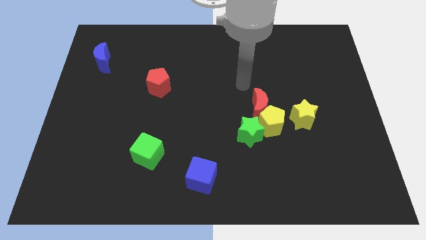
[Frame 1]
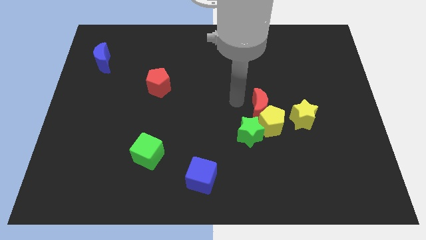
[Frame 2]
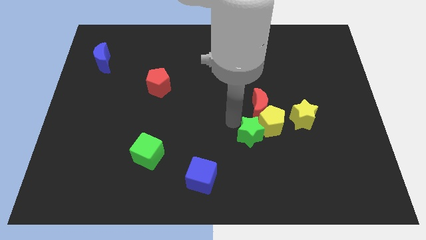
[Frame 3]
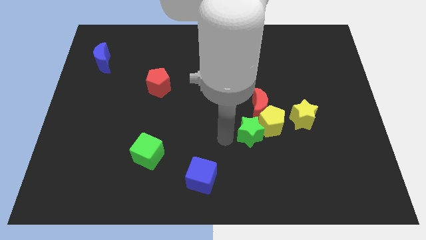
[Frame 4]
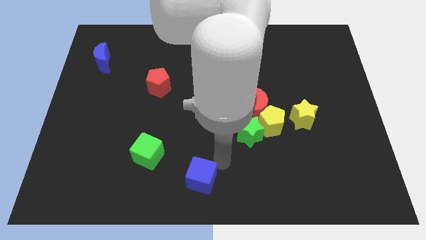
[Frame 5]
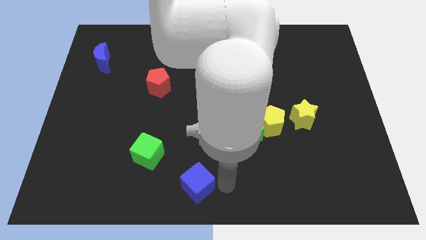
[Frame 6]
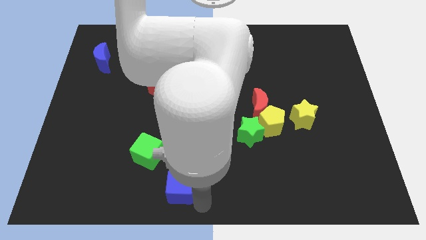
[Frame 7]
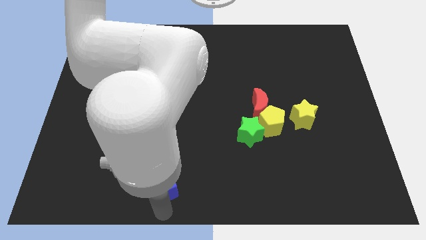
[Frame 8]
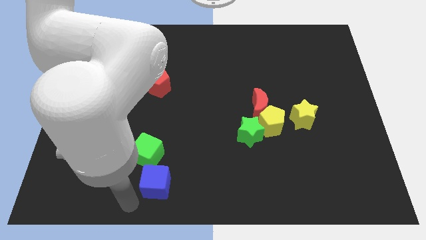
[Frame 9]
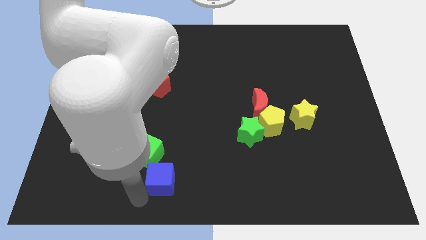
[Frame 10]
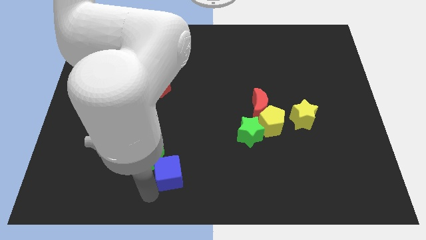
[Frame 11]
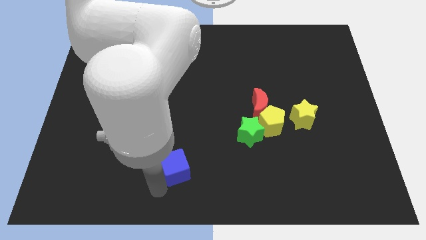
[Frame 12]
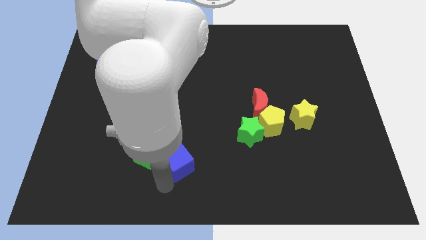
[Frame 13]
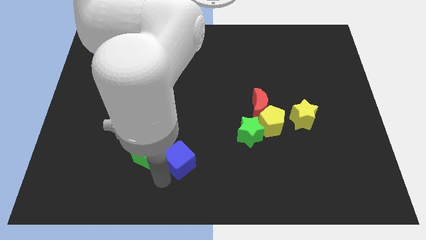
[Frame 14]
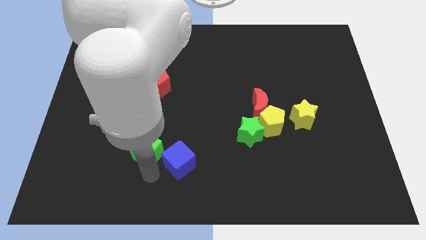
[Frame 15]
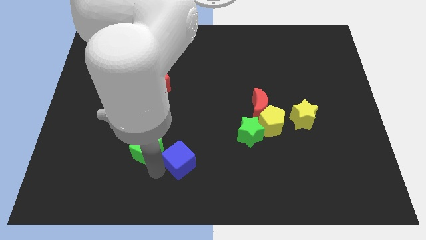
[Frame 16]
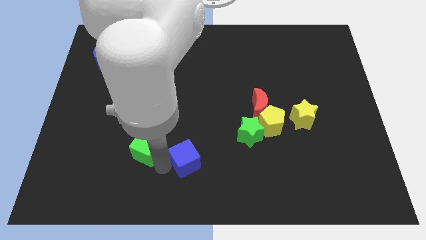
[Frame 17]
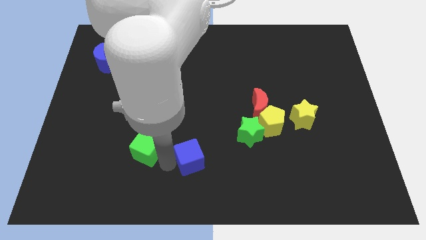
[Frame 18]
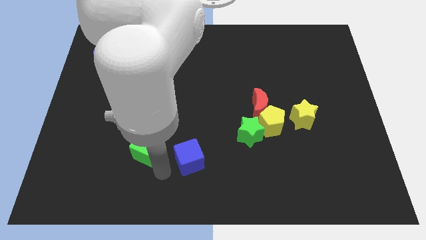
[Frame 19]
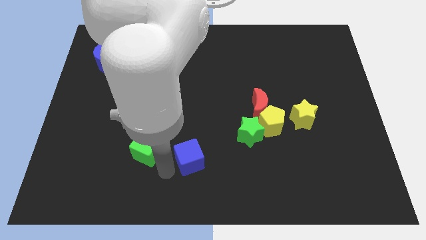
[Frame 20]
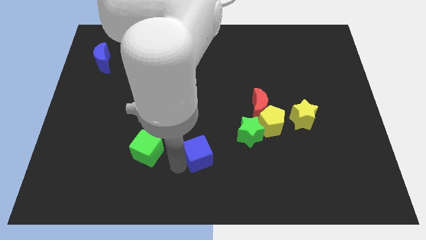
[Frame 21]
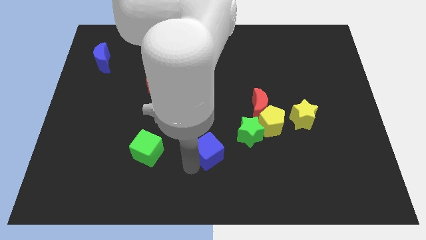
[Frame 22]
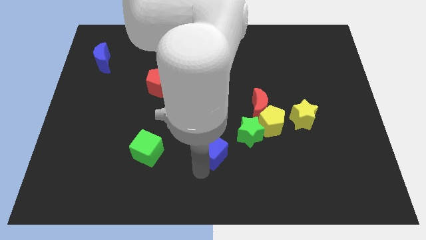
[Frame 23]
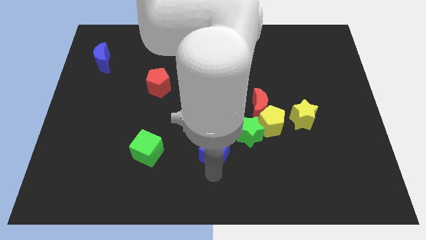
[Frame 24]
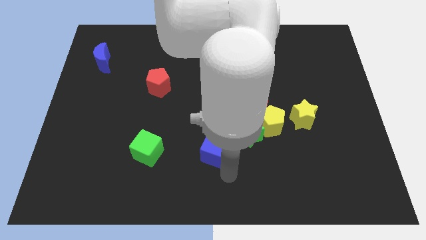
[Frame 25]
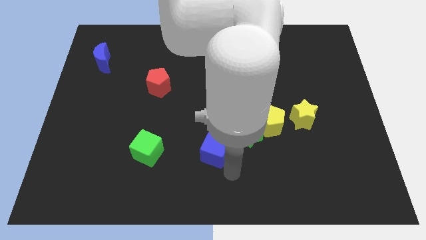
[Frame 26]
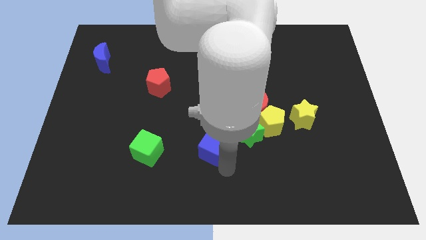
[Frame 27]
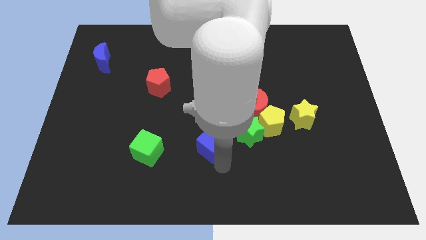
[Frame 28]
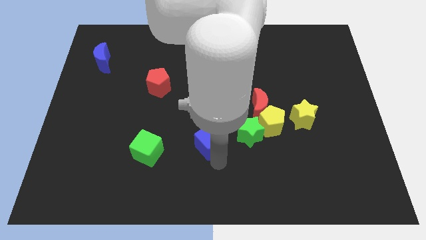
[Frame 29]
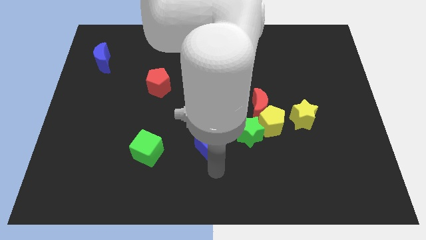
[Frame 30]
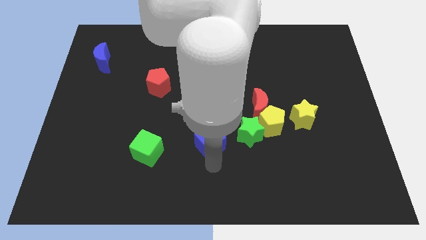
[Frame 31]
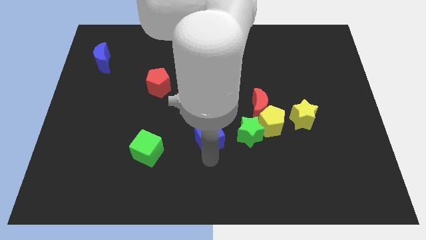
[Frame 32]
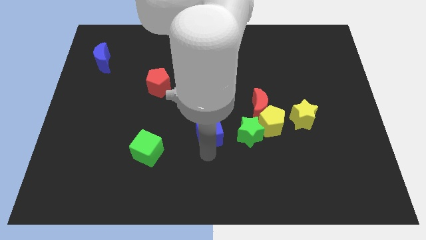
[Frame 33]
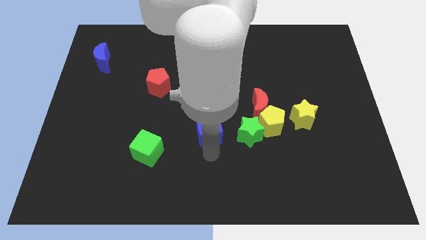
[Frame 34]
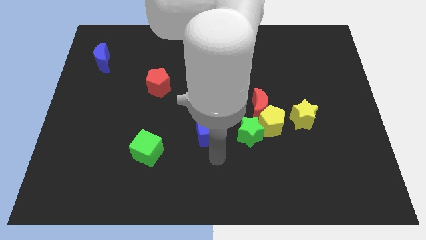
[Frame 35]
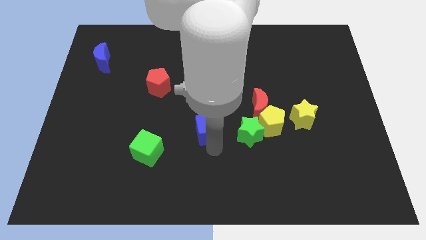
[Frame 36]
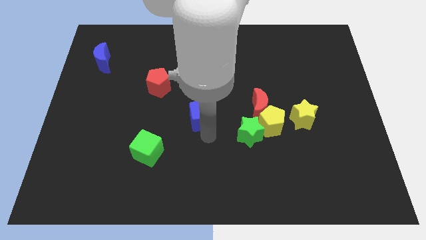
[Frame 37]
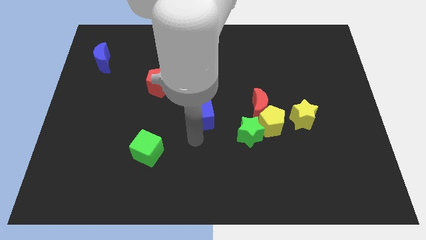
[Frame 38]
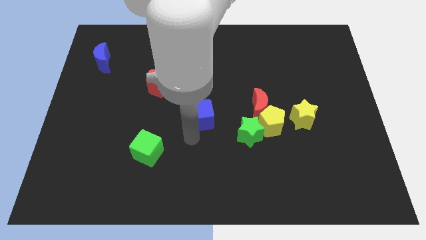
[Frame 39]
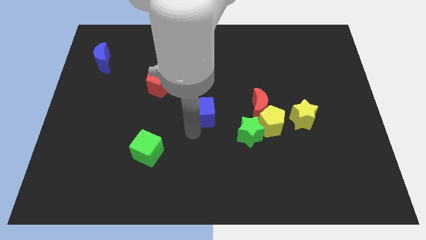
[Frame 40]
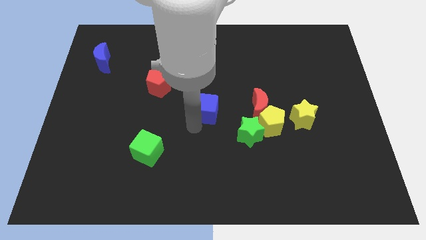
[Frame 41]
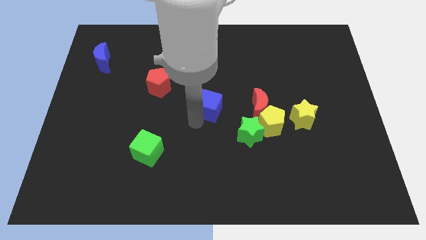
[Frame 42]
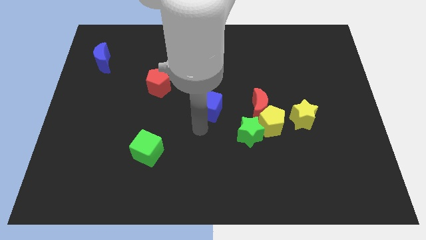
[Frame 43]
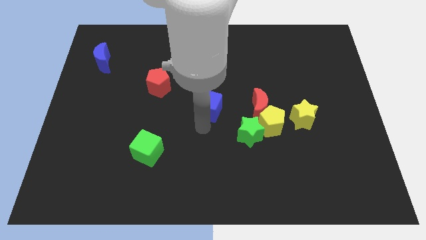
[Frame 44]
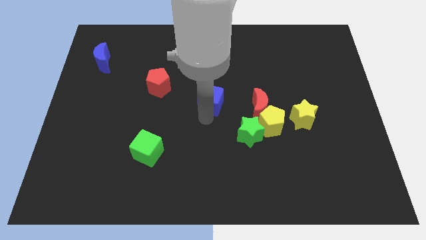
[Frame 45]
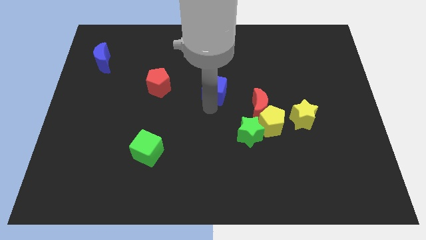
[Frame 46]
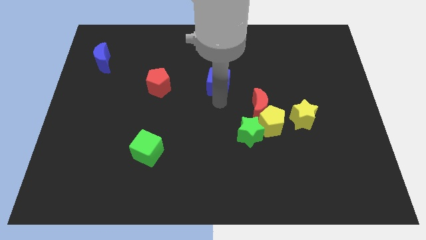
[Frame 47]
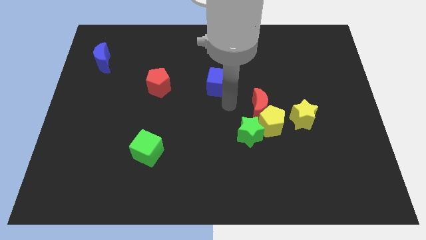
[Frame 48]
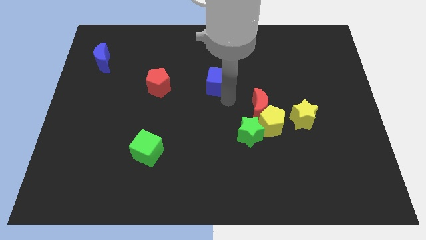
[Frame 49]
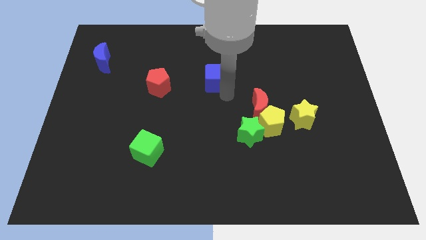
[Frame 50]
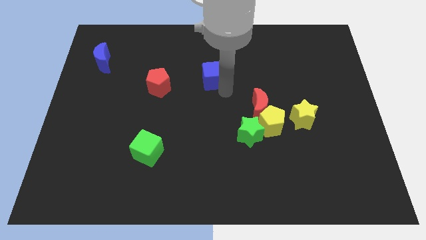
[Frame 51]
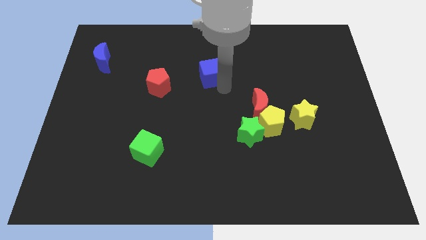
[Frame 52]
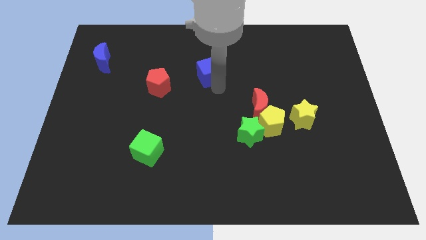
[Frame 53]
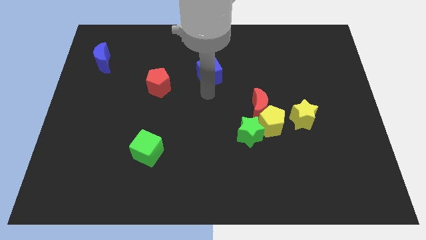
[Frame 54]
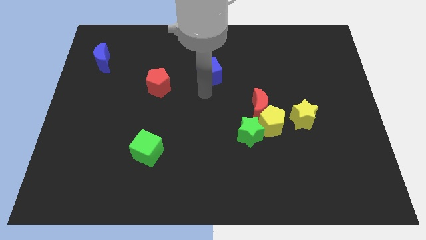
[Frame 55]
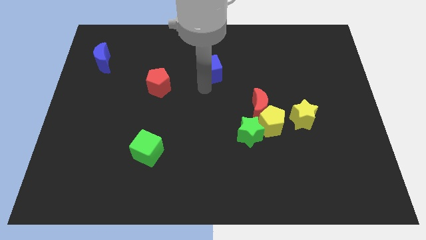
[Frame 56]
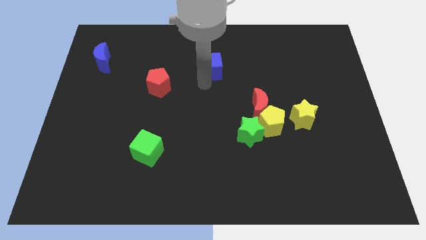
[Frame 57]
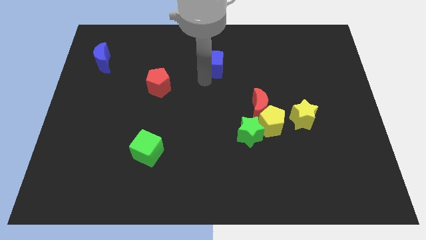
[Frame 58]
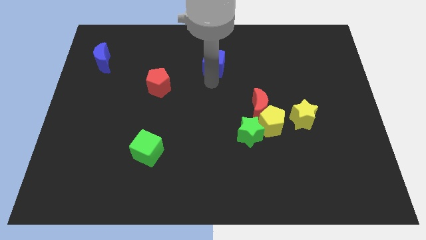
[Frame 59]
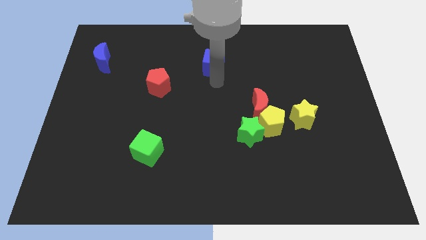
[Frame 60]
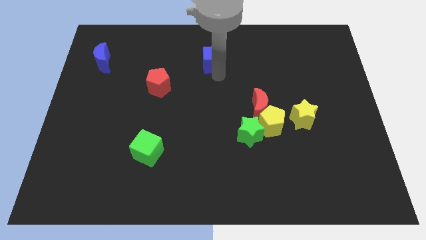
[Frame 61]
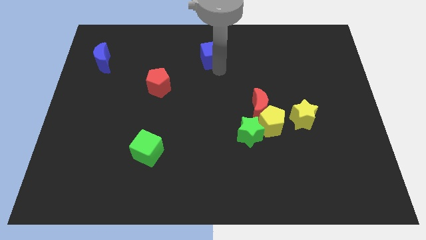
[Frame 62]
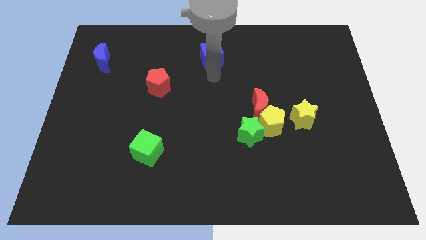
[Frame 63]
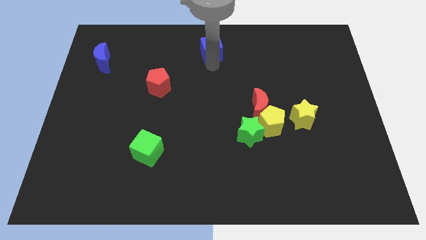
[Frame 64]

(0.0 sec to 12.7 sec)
slide the blue cube to the top side
